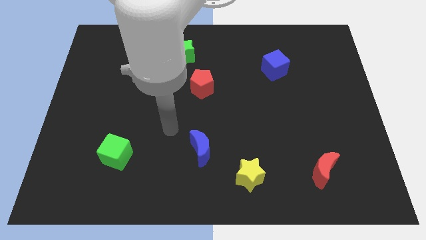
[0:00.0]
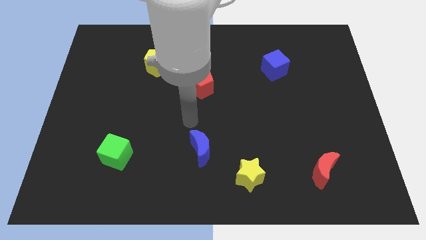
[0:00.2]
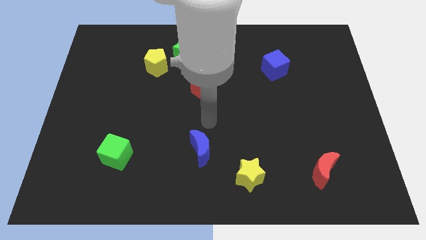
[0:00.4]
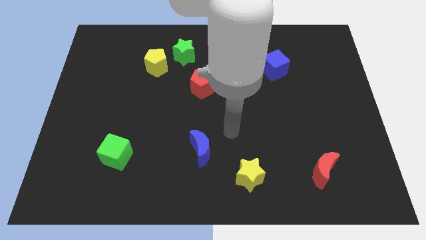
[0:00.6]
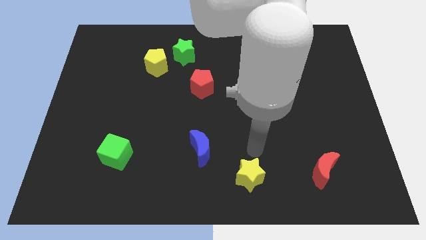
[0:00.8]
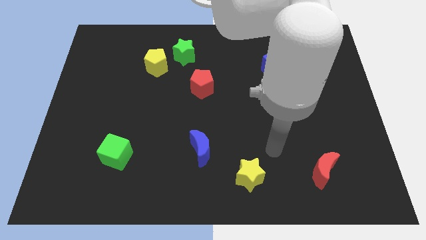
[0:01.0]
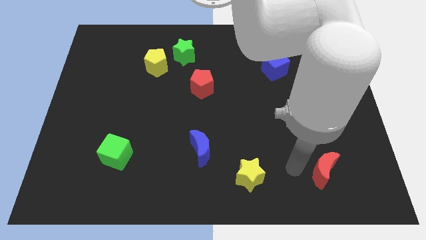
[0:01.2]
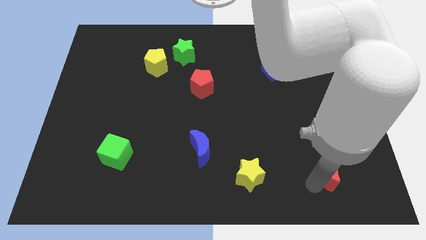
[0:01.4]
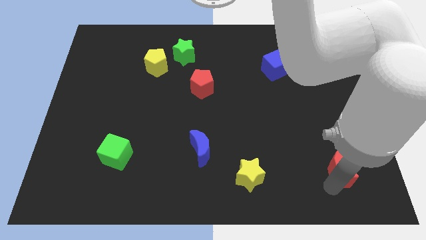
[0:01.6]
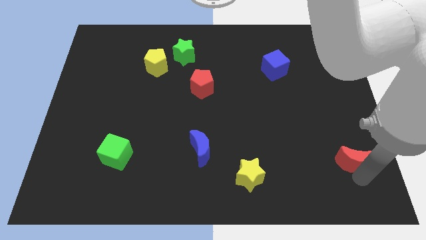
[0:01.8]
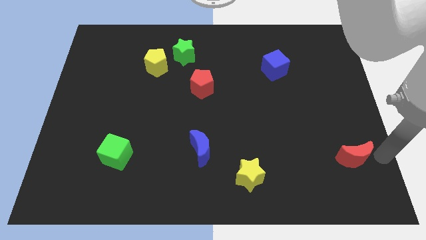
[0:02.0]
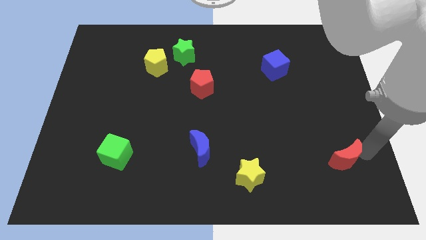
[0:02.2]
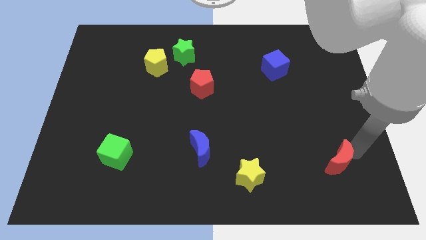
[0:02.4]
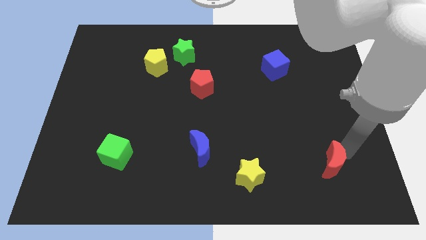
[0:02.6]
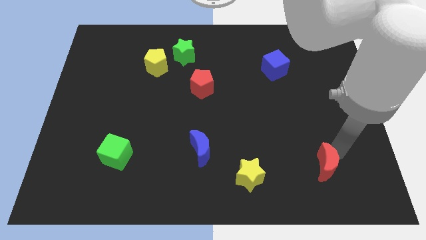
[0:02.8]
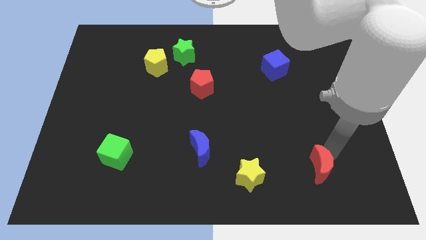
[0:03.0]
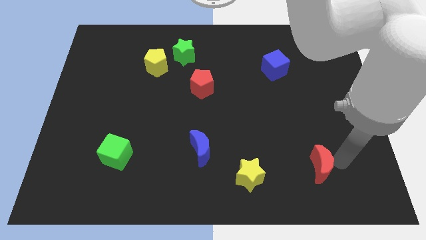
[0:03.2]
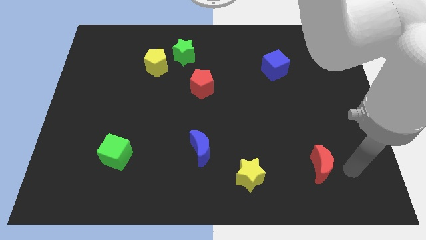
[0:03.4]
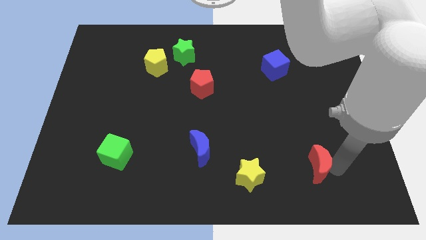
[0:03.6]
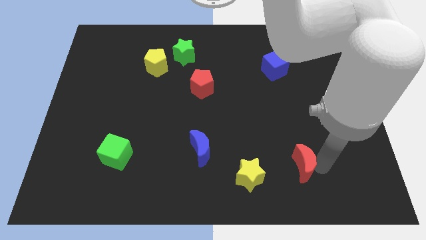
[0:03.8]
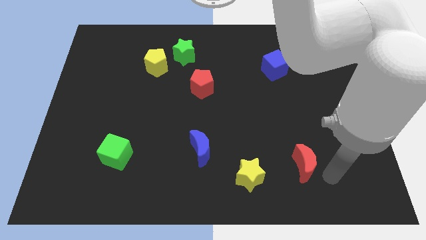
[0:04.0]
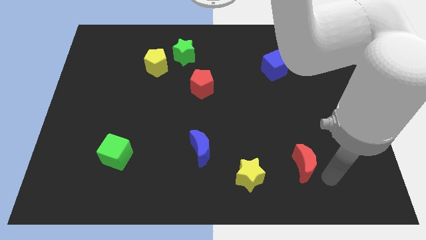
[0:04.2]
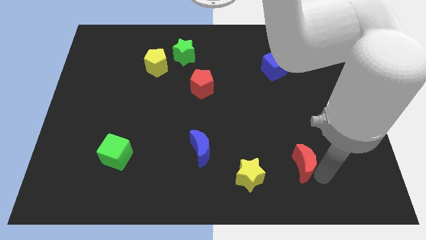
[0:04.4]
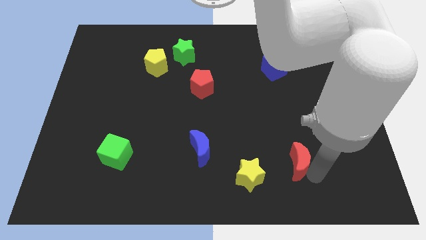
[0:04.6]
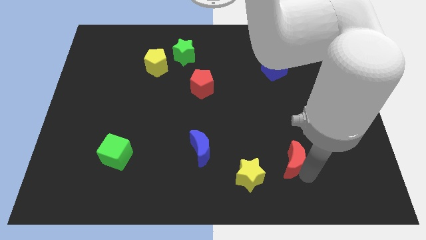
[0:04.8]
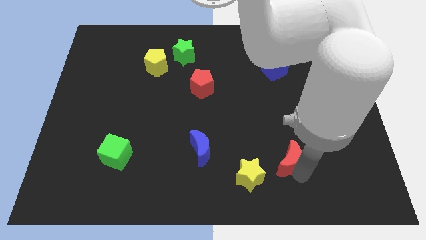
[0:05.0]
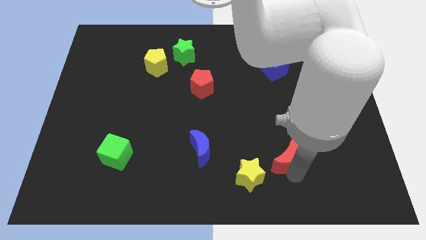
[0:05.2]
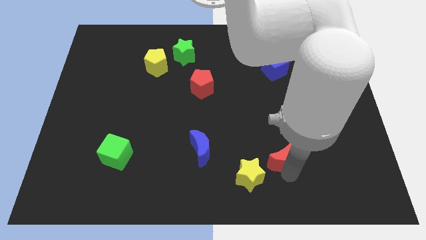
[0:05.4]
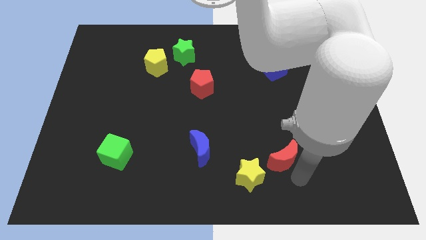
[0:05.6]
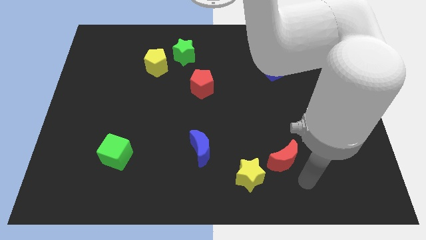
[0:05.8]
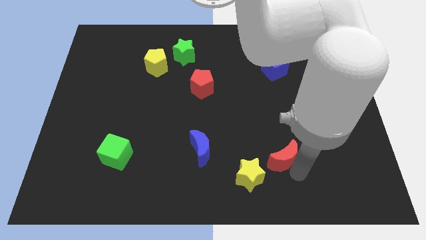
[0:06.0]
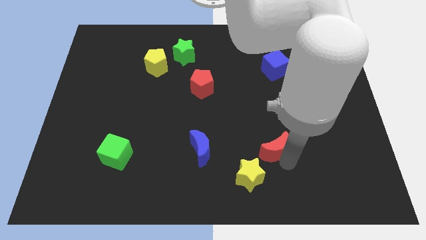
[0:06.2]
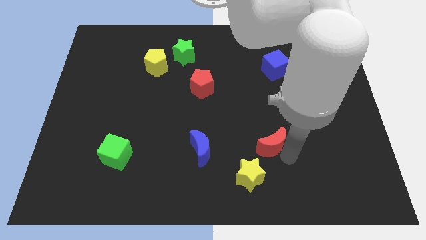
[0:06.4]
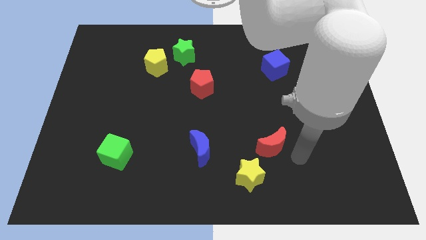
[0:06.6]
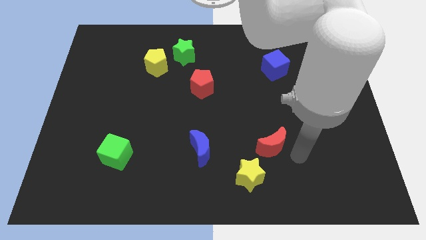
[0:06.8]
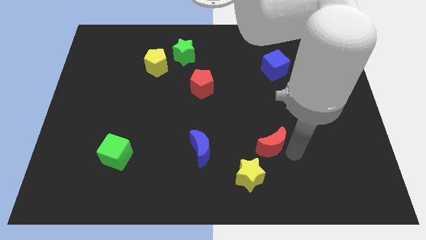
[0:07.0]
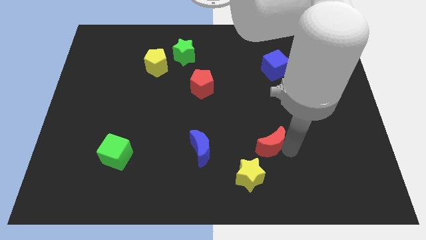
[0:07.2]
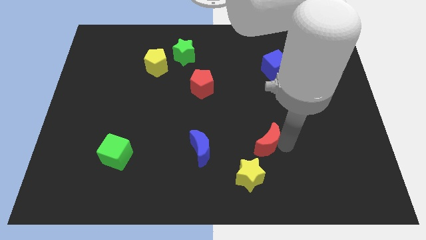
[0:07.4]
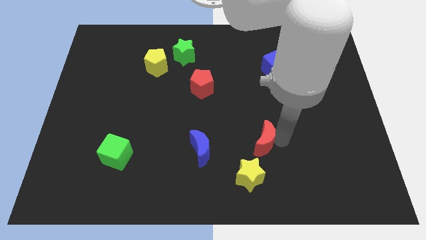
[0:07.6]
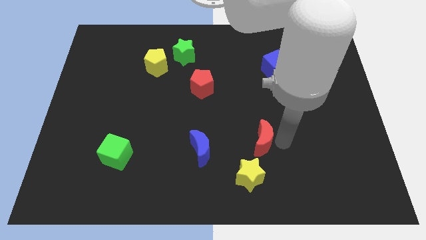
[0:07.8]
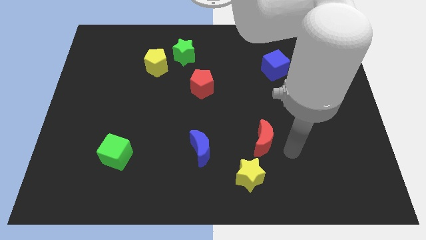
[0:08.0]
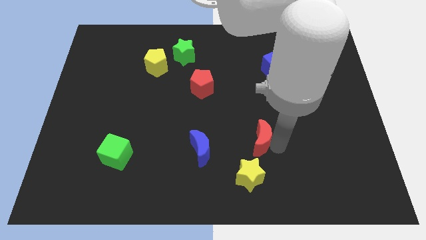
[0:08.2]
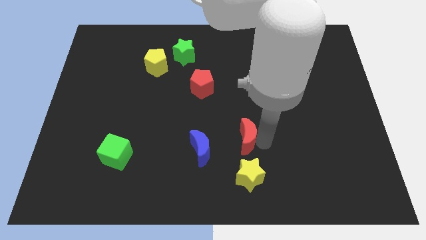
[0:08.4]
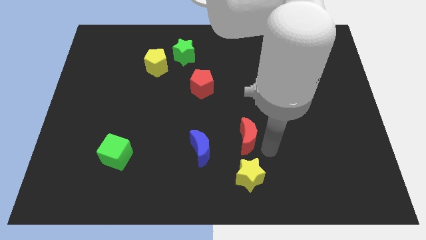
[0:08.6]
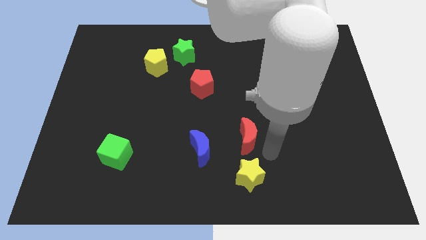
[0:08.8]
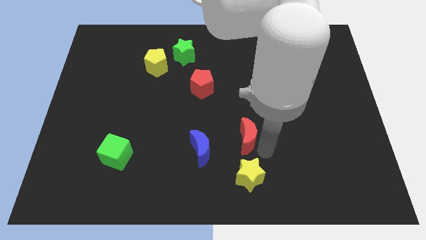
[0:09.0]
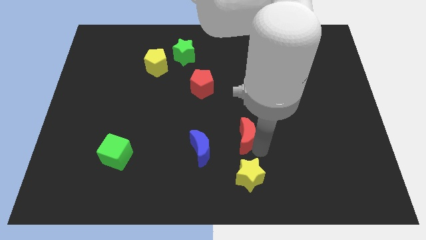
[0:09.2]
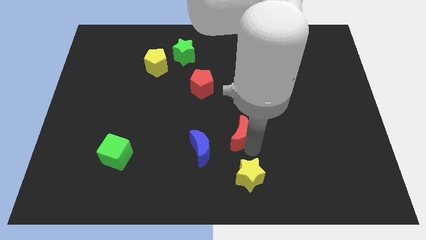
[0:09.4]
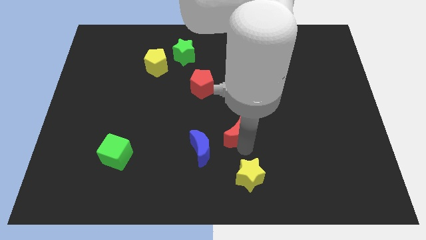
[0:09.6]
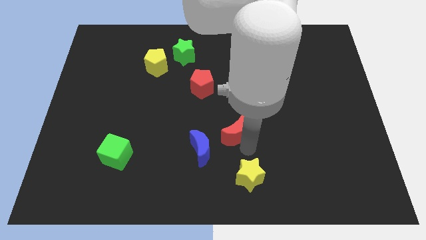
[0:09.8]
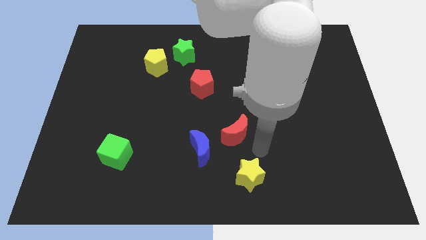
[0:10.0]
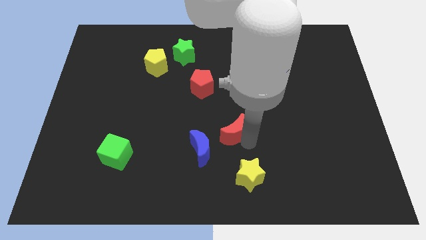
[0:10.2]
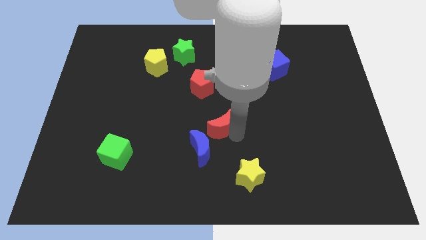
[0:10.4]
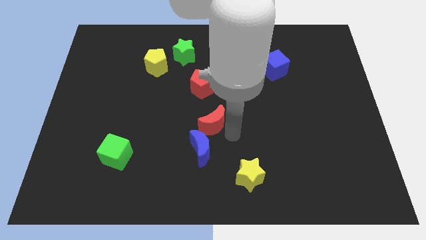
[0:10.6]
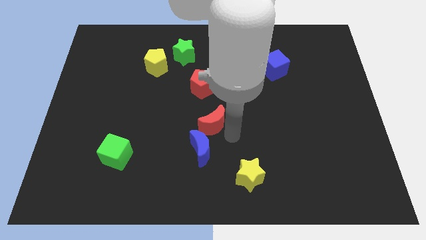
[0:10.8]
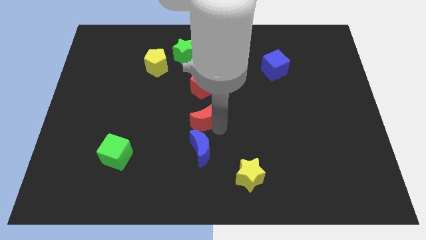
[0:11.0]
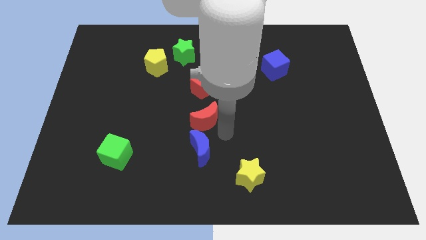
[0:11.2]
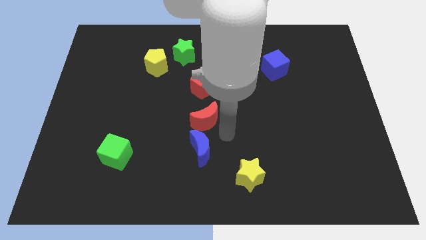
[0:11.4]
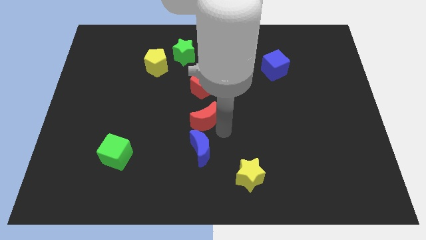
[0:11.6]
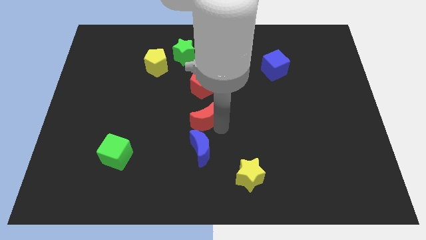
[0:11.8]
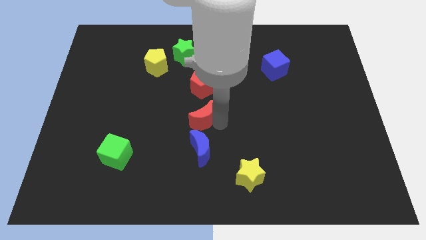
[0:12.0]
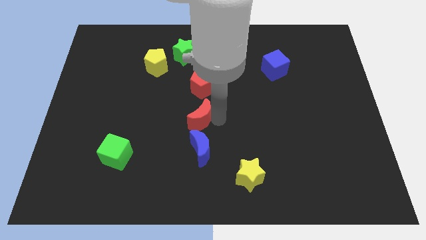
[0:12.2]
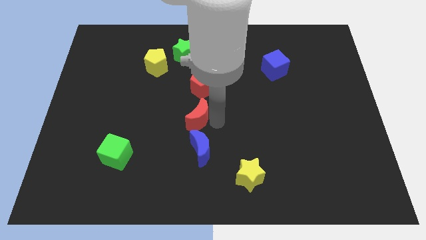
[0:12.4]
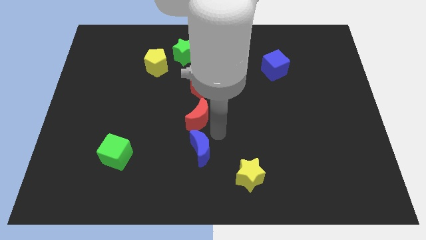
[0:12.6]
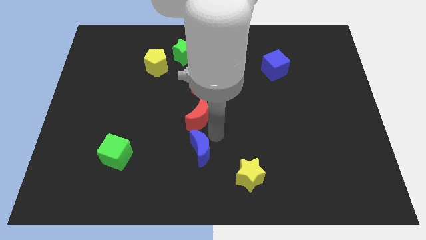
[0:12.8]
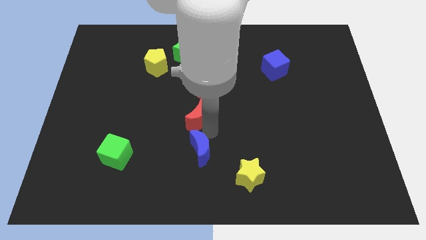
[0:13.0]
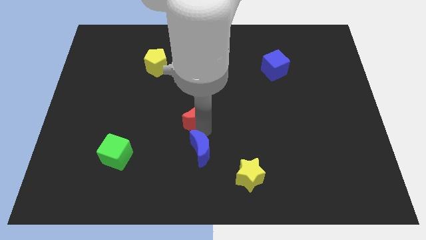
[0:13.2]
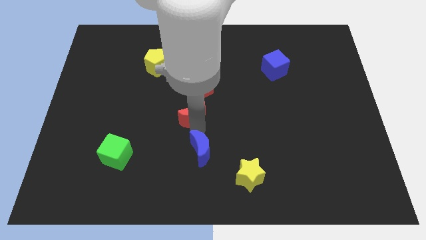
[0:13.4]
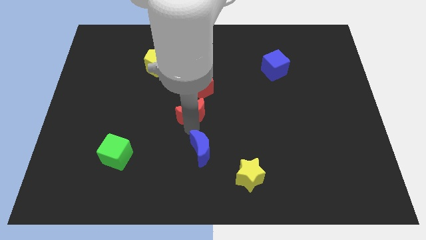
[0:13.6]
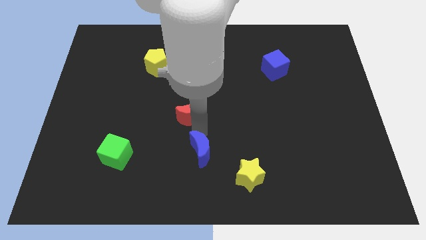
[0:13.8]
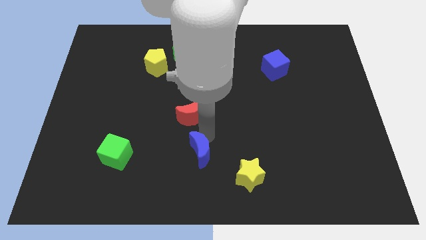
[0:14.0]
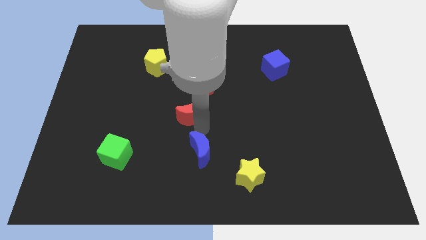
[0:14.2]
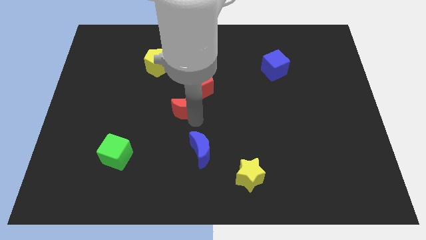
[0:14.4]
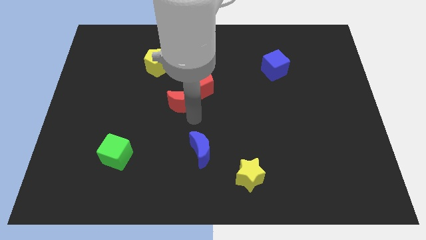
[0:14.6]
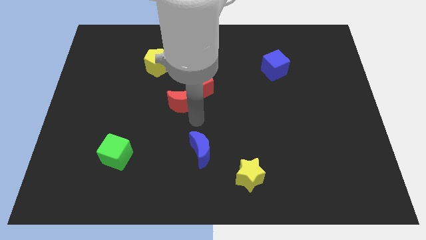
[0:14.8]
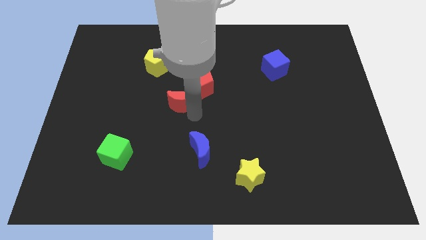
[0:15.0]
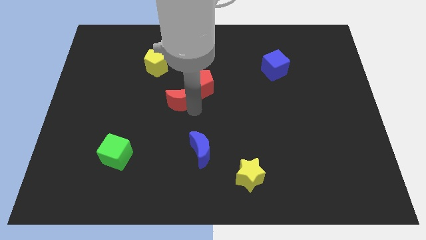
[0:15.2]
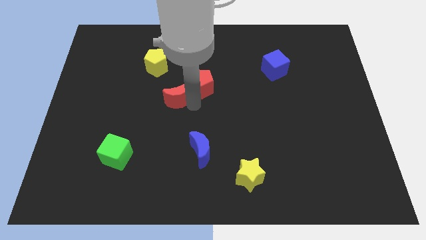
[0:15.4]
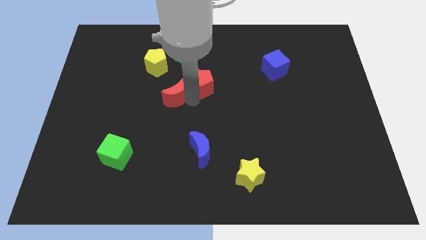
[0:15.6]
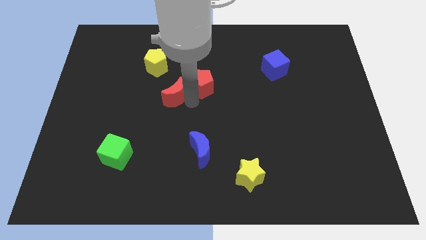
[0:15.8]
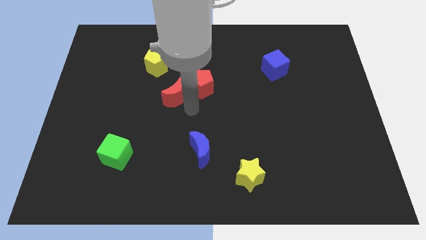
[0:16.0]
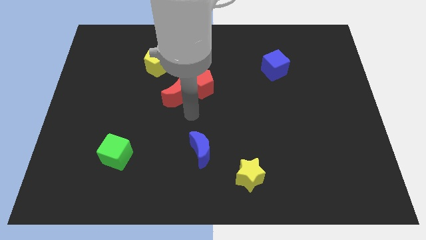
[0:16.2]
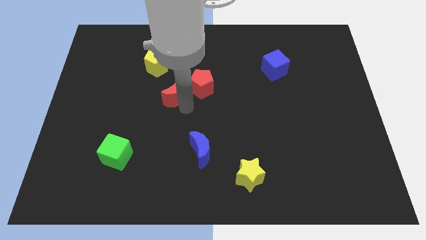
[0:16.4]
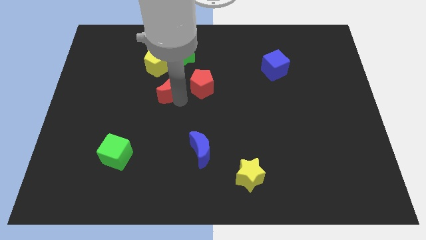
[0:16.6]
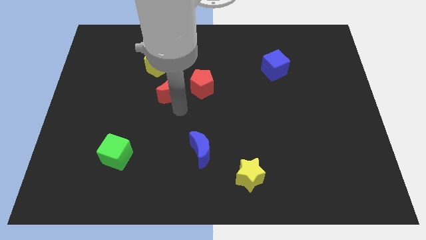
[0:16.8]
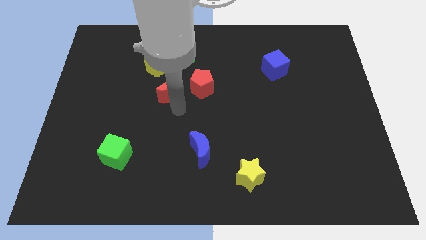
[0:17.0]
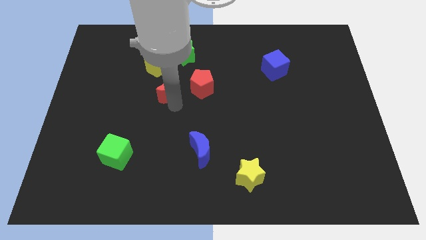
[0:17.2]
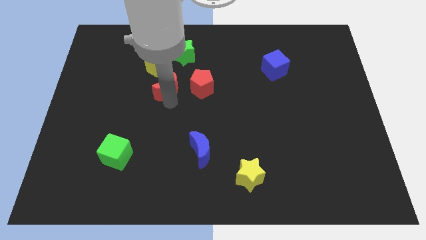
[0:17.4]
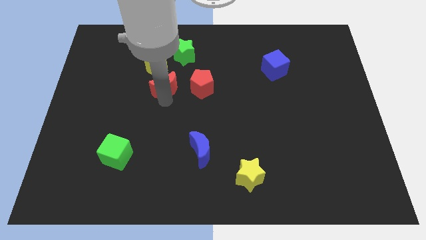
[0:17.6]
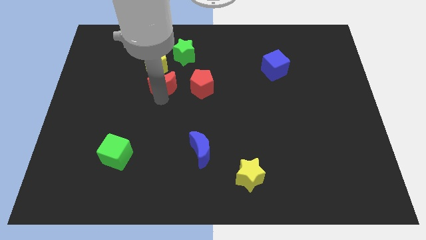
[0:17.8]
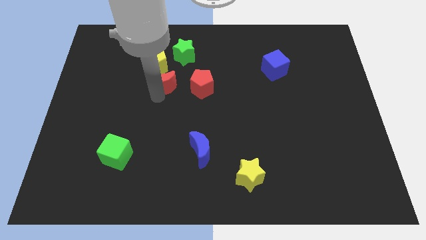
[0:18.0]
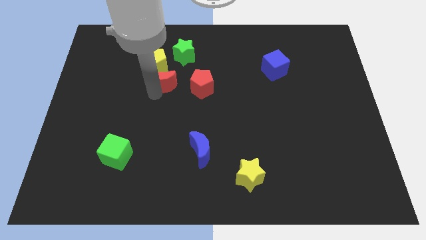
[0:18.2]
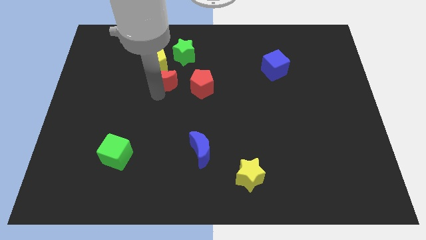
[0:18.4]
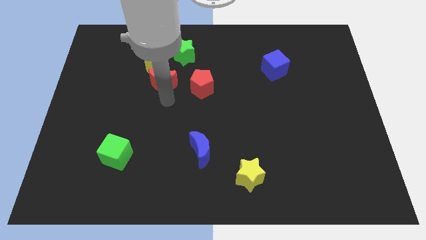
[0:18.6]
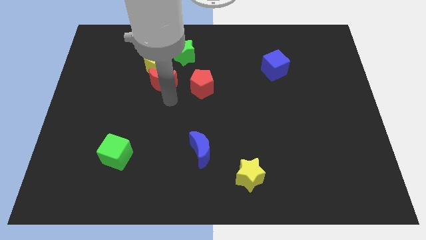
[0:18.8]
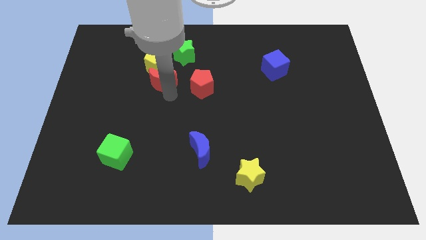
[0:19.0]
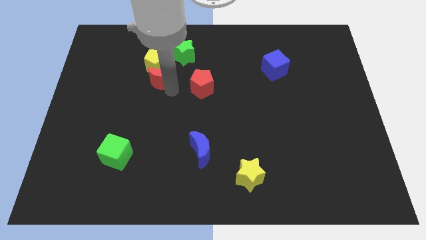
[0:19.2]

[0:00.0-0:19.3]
slide the red moon next to the yellow pentagon
